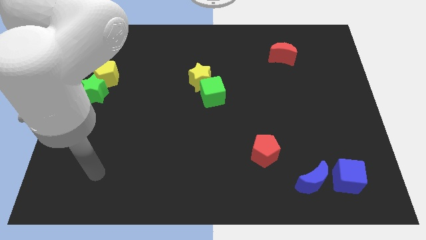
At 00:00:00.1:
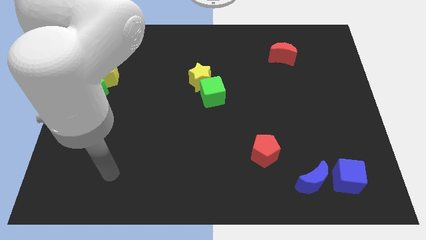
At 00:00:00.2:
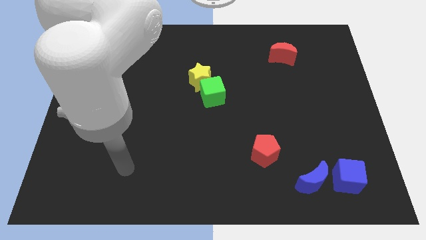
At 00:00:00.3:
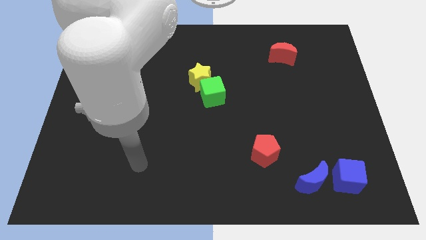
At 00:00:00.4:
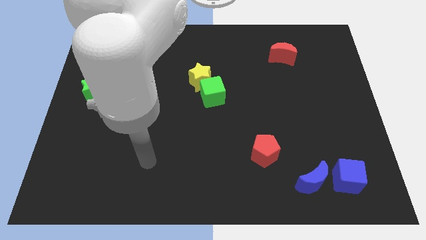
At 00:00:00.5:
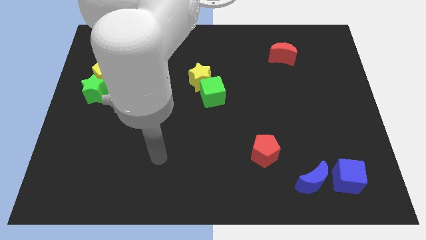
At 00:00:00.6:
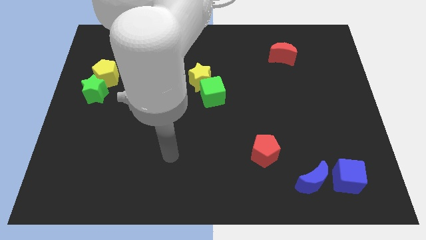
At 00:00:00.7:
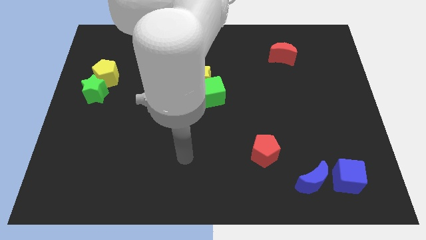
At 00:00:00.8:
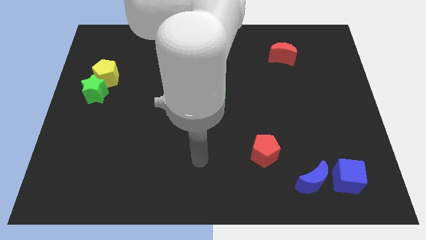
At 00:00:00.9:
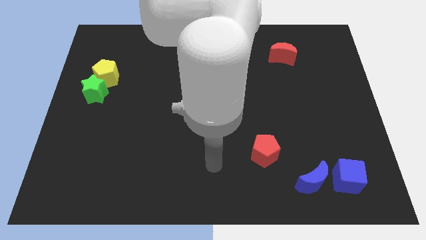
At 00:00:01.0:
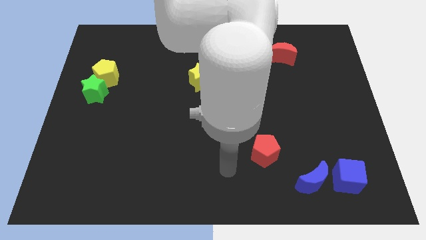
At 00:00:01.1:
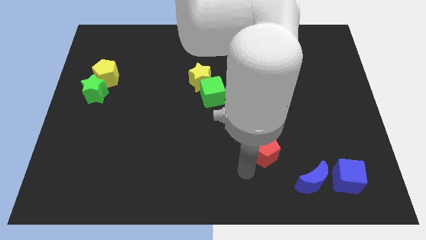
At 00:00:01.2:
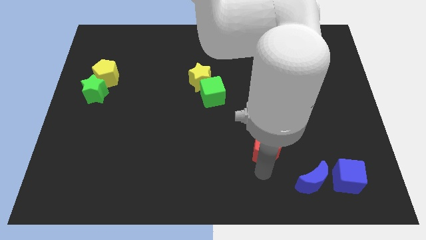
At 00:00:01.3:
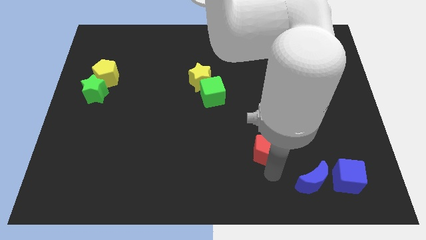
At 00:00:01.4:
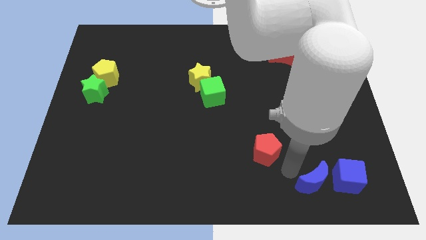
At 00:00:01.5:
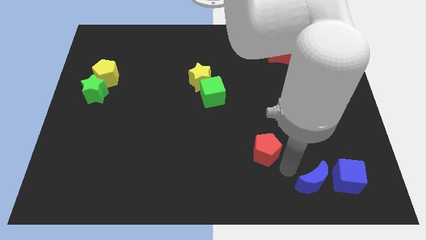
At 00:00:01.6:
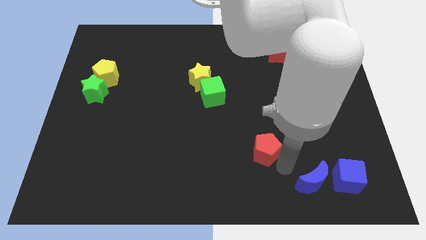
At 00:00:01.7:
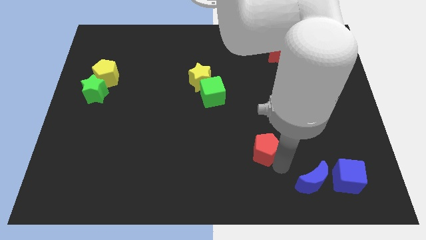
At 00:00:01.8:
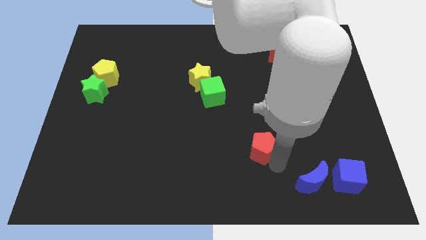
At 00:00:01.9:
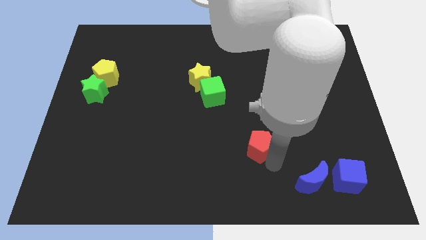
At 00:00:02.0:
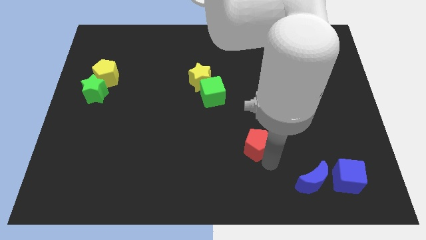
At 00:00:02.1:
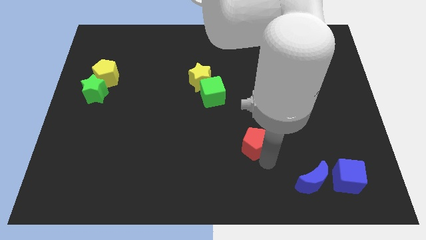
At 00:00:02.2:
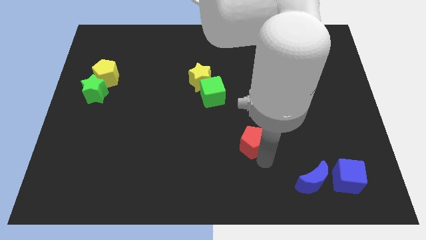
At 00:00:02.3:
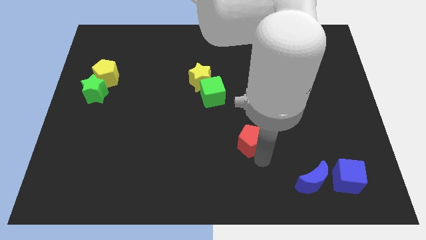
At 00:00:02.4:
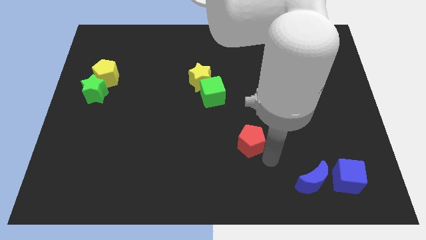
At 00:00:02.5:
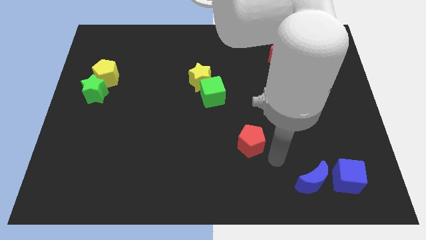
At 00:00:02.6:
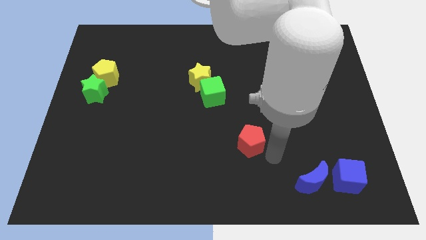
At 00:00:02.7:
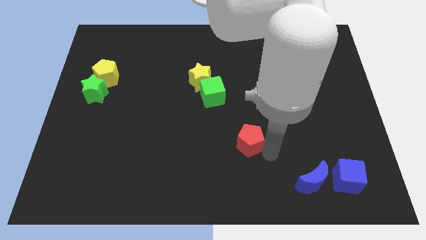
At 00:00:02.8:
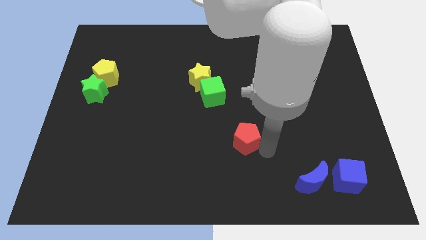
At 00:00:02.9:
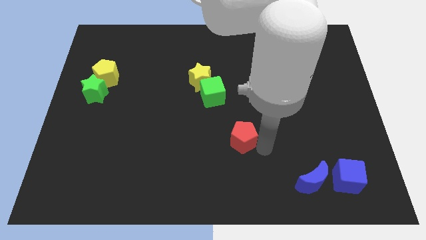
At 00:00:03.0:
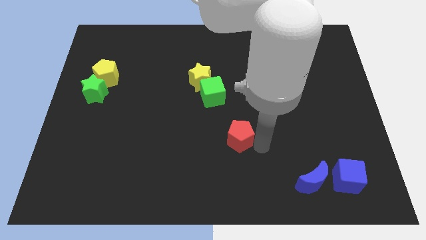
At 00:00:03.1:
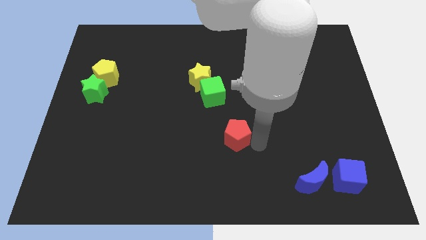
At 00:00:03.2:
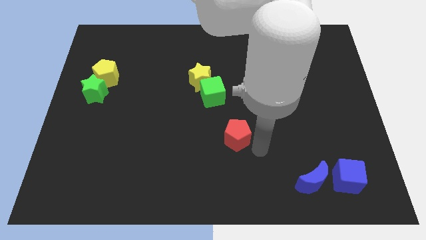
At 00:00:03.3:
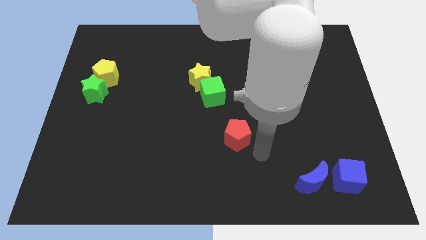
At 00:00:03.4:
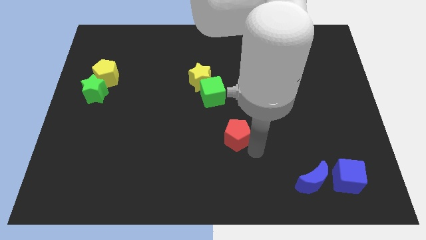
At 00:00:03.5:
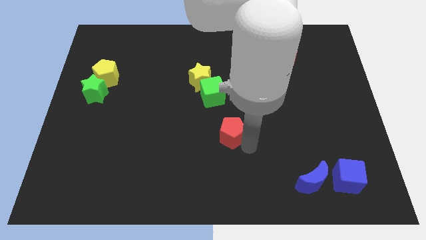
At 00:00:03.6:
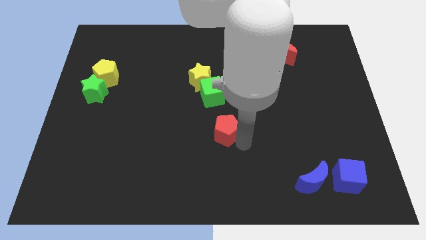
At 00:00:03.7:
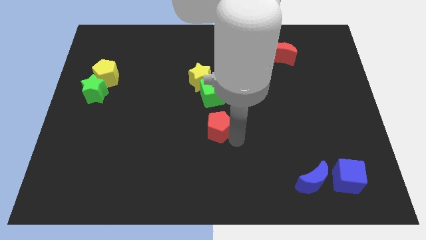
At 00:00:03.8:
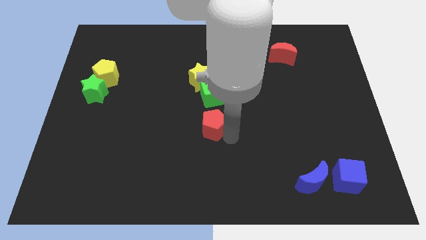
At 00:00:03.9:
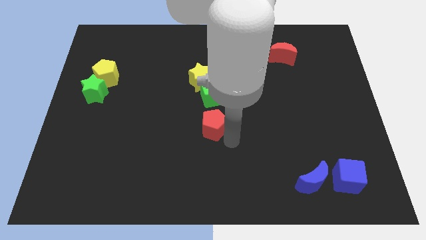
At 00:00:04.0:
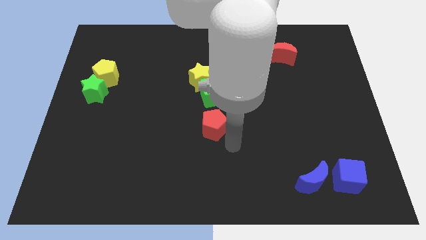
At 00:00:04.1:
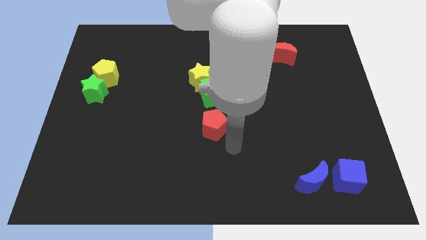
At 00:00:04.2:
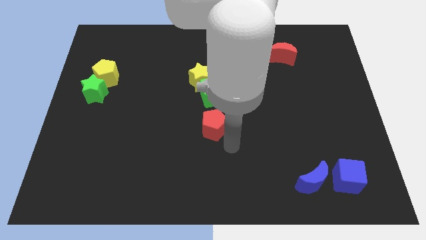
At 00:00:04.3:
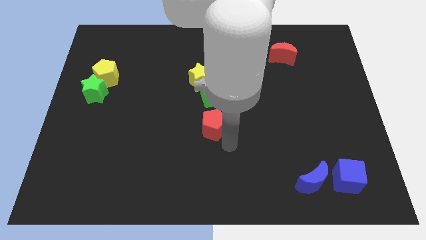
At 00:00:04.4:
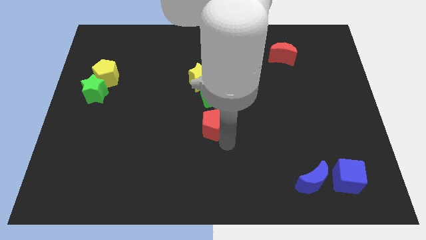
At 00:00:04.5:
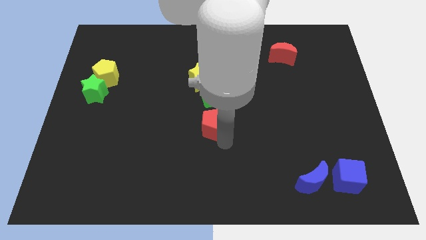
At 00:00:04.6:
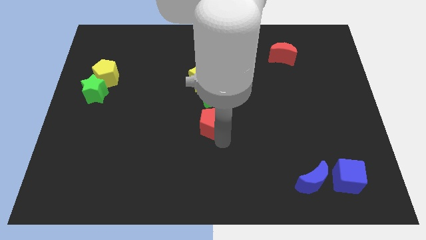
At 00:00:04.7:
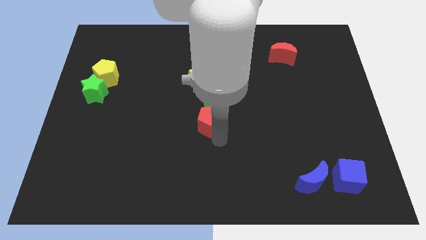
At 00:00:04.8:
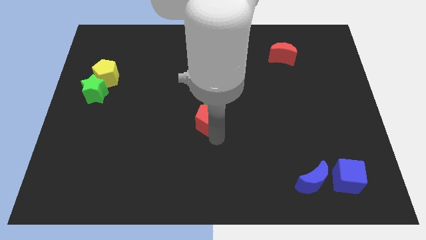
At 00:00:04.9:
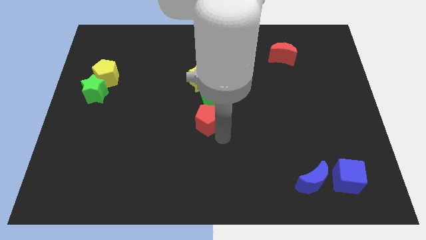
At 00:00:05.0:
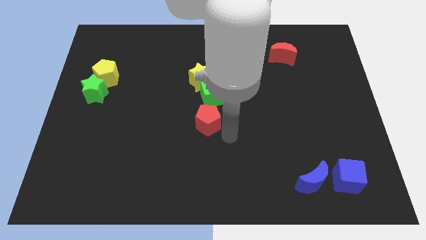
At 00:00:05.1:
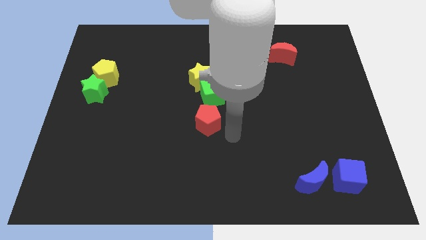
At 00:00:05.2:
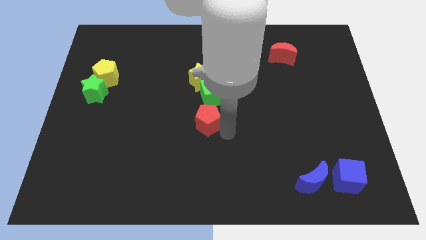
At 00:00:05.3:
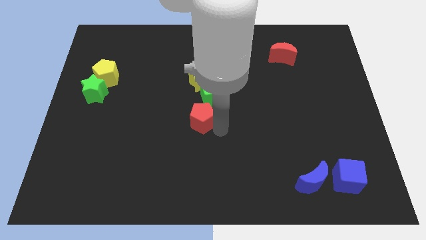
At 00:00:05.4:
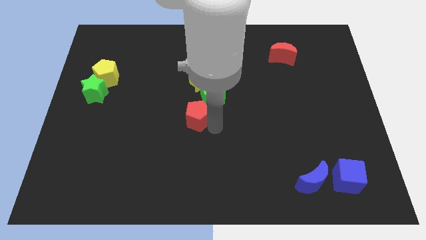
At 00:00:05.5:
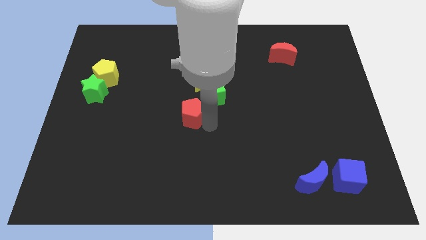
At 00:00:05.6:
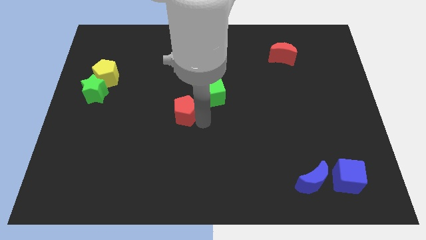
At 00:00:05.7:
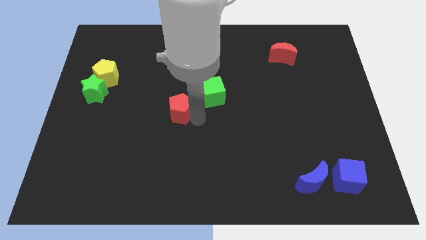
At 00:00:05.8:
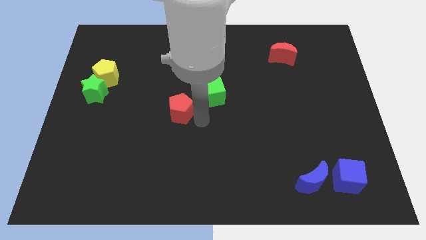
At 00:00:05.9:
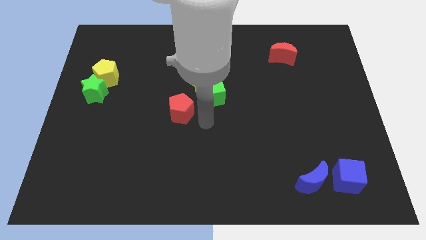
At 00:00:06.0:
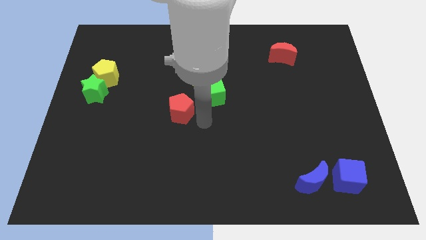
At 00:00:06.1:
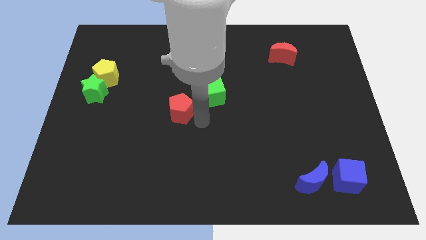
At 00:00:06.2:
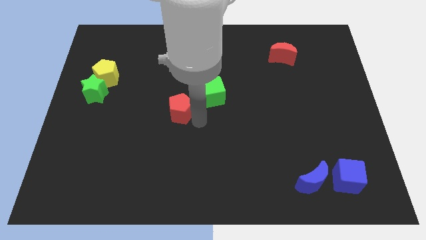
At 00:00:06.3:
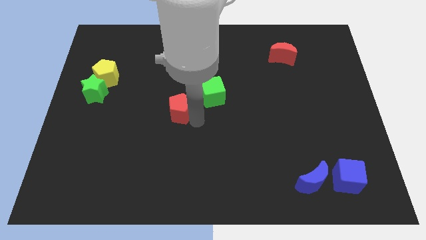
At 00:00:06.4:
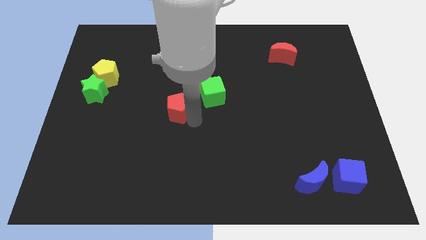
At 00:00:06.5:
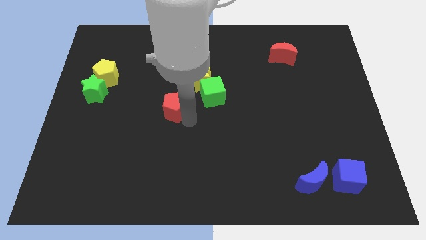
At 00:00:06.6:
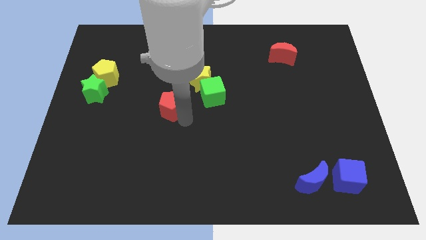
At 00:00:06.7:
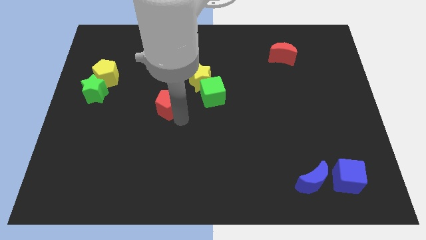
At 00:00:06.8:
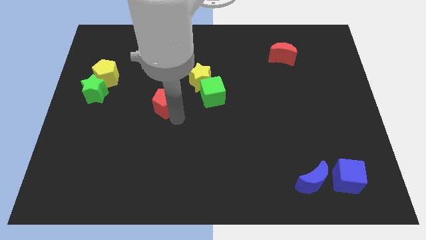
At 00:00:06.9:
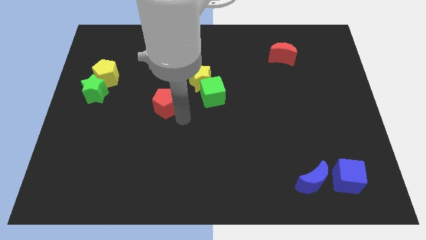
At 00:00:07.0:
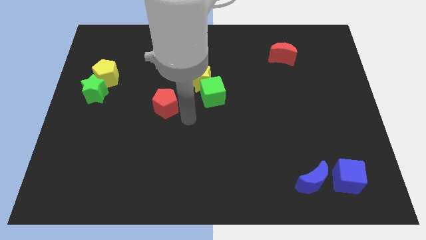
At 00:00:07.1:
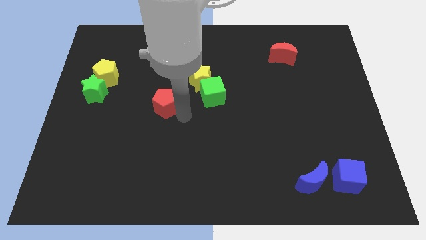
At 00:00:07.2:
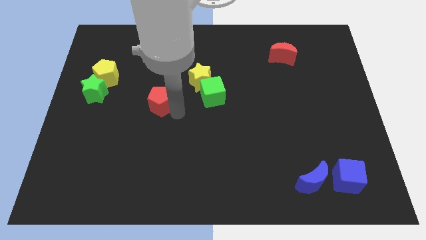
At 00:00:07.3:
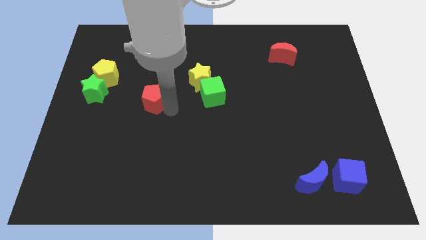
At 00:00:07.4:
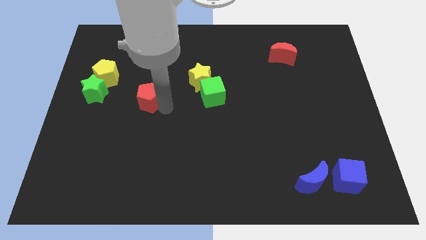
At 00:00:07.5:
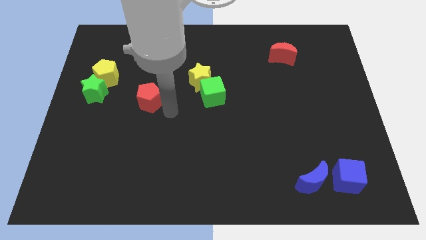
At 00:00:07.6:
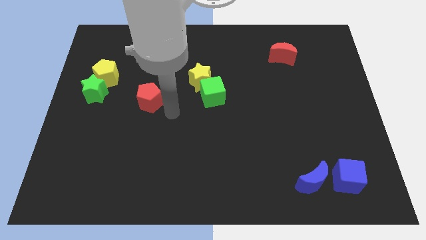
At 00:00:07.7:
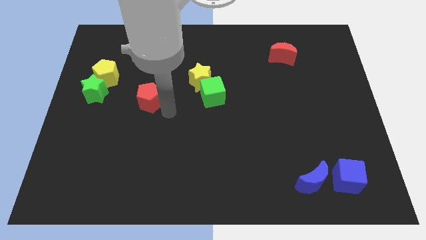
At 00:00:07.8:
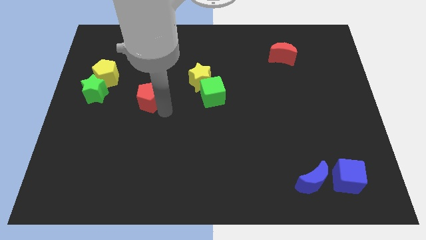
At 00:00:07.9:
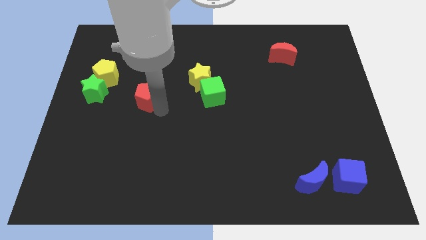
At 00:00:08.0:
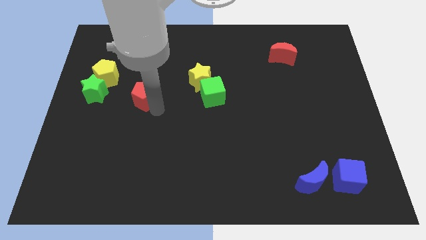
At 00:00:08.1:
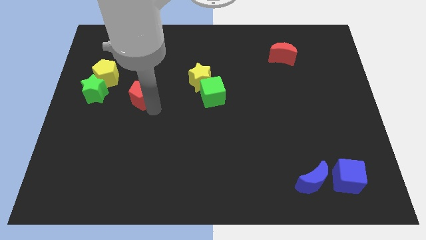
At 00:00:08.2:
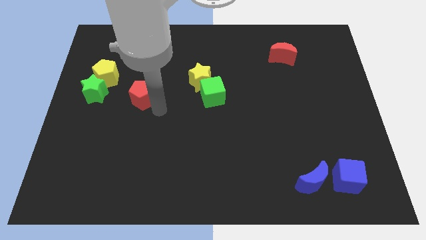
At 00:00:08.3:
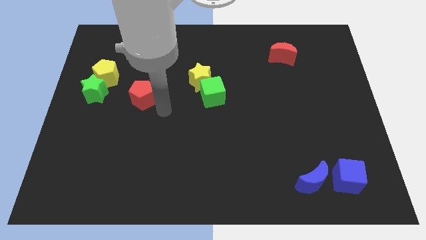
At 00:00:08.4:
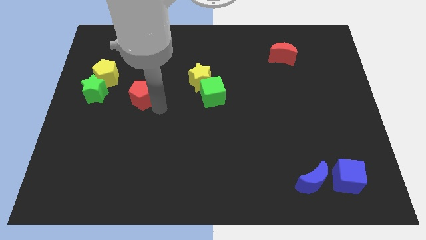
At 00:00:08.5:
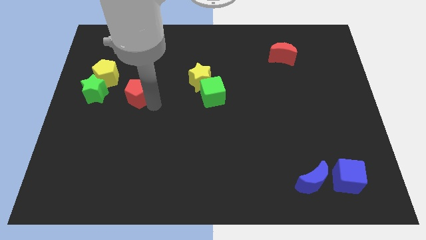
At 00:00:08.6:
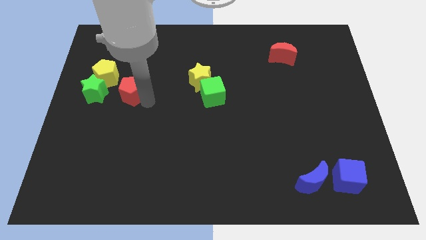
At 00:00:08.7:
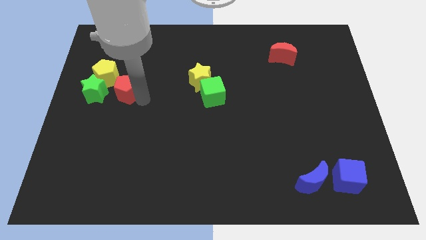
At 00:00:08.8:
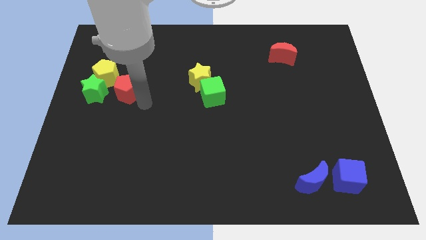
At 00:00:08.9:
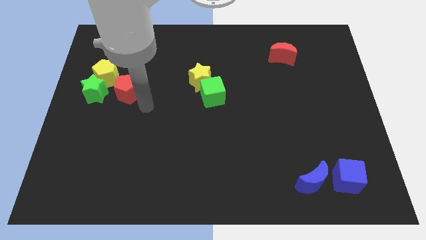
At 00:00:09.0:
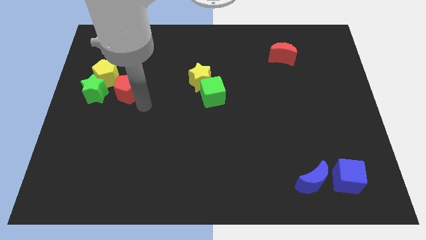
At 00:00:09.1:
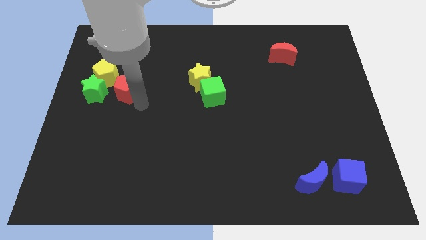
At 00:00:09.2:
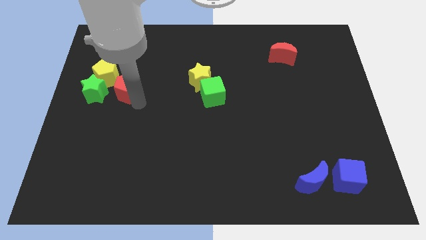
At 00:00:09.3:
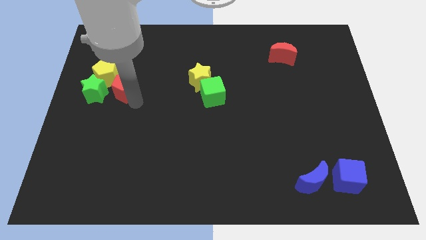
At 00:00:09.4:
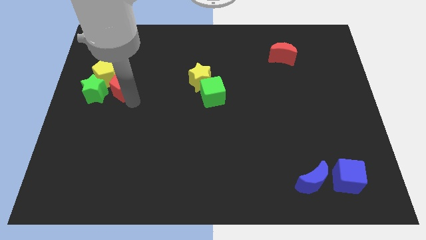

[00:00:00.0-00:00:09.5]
push the red pentagon next to the yellow pentagon
